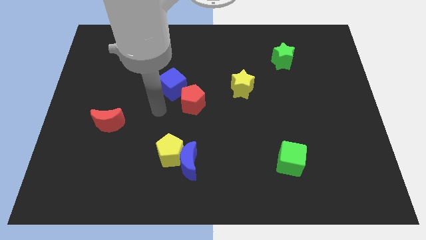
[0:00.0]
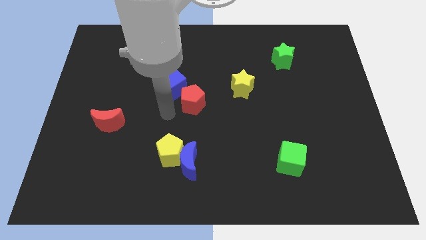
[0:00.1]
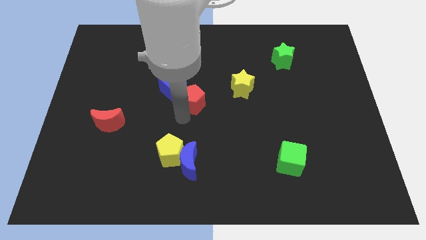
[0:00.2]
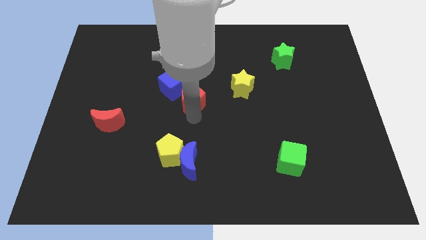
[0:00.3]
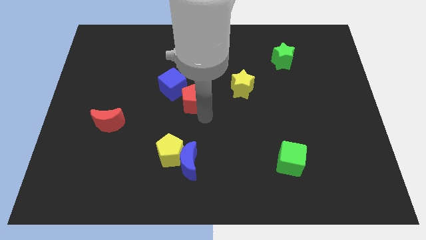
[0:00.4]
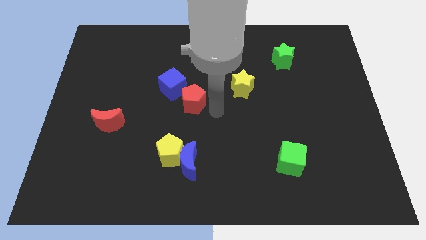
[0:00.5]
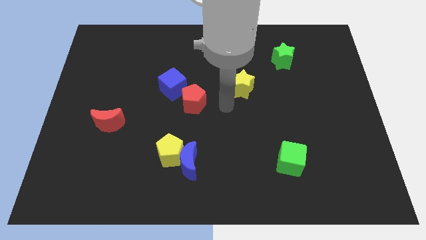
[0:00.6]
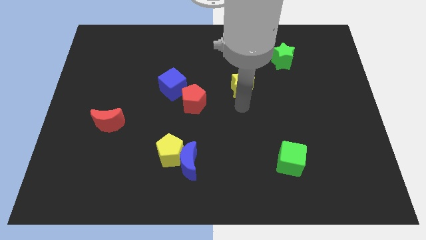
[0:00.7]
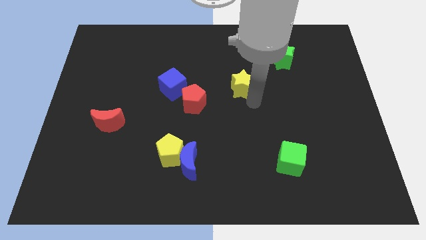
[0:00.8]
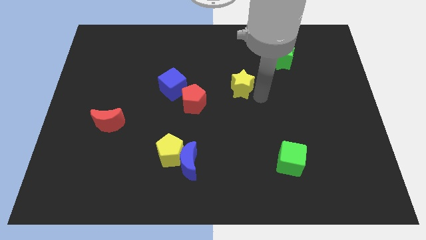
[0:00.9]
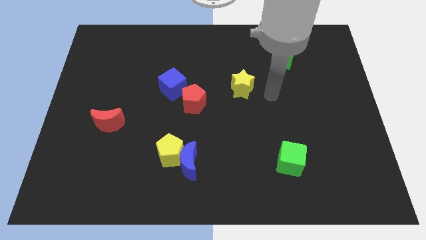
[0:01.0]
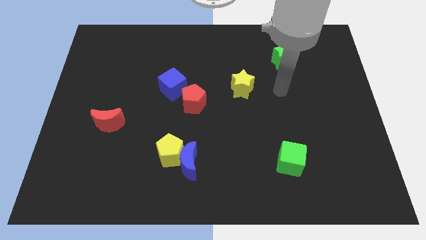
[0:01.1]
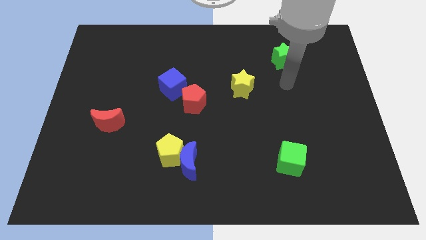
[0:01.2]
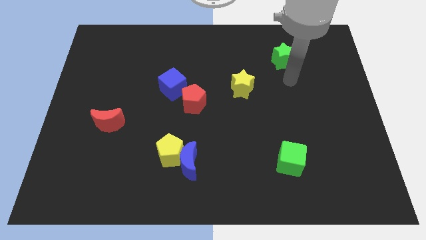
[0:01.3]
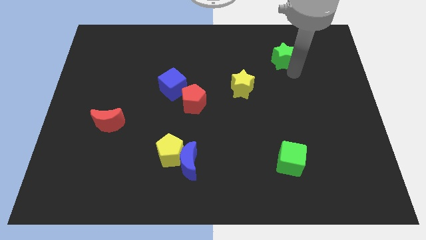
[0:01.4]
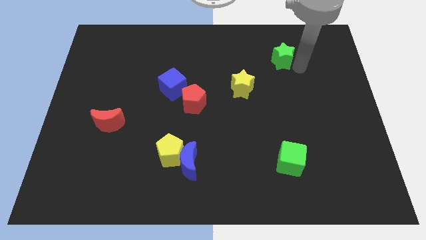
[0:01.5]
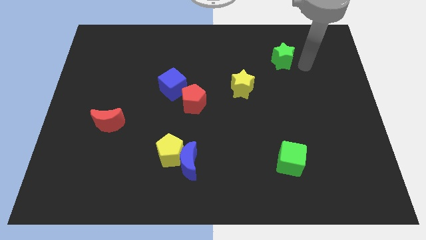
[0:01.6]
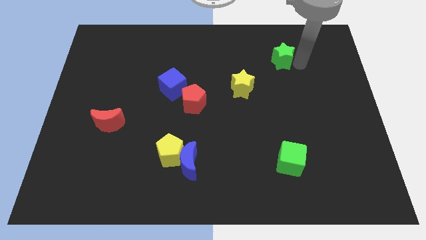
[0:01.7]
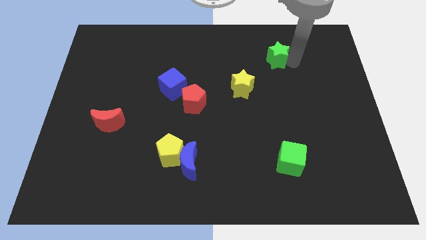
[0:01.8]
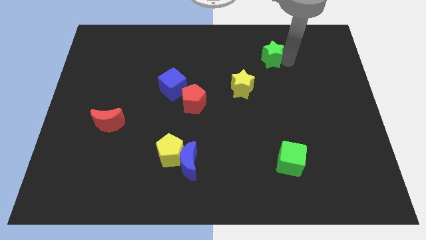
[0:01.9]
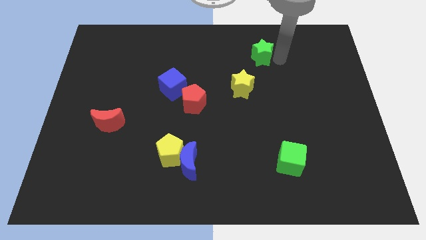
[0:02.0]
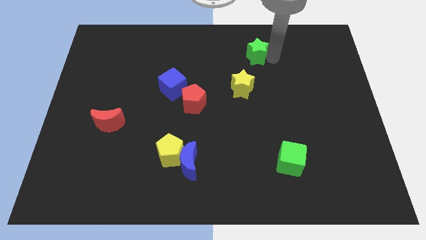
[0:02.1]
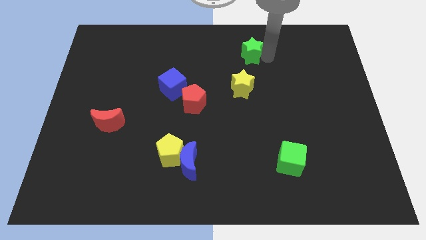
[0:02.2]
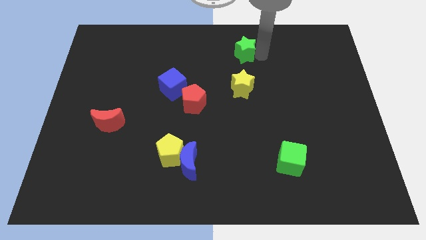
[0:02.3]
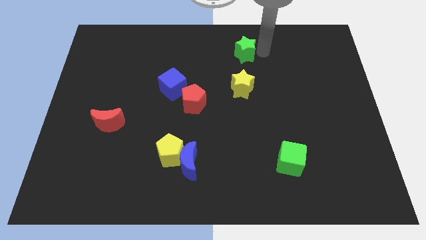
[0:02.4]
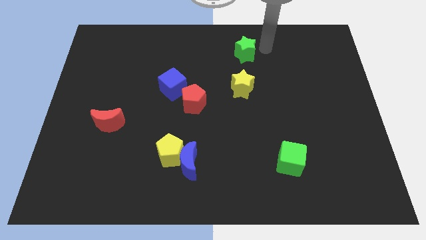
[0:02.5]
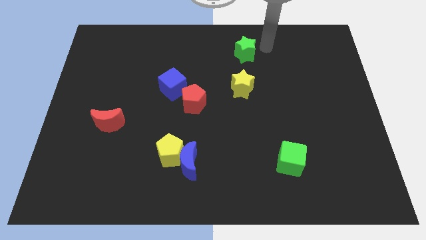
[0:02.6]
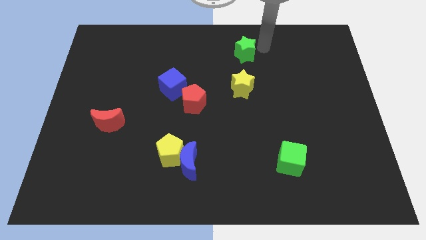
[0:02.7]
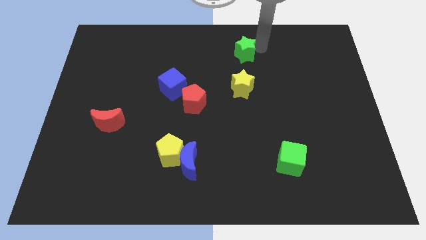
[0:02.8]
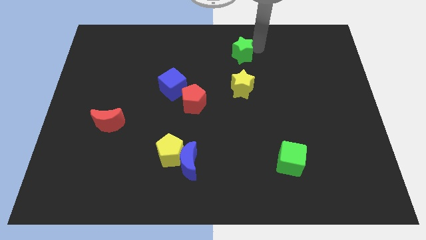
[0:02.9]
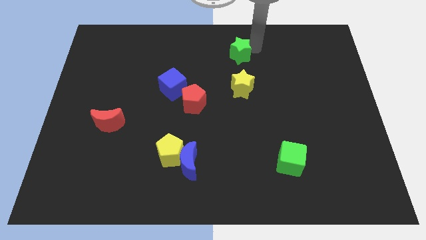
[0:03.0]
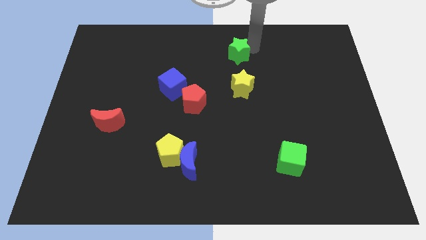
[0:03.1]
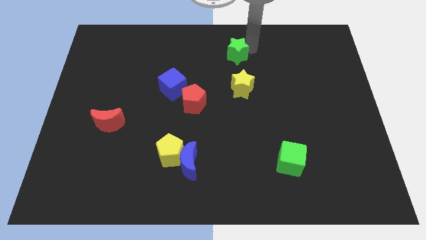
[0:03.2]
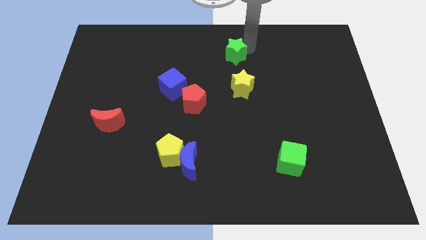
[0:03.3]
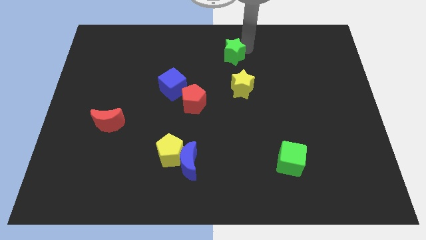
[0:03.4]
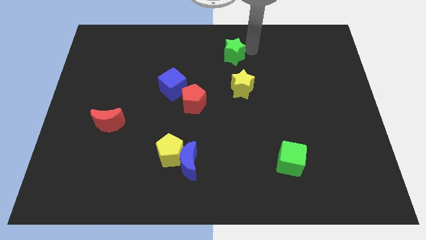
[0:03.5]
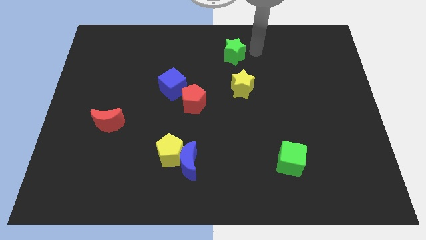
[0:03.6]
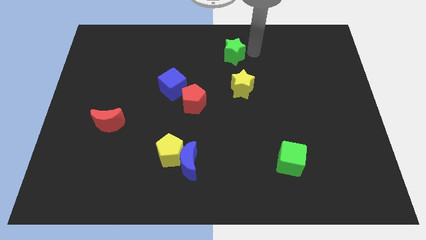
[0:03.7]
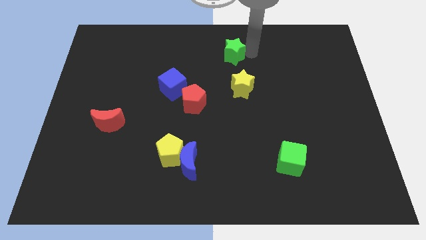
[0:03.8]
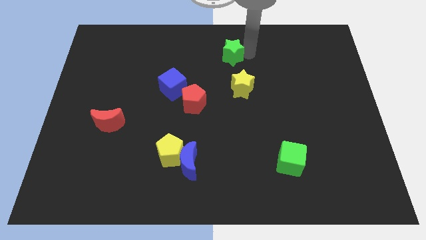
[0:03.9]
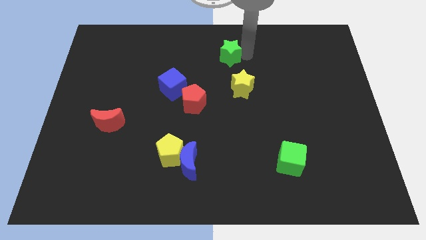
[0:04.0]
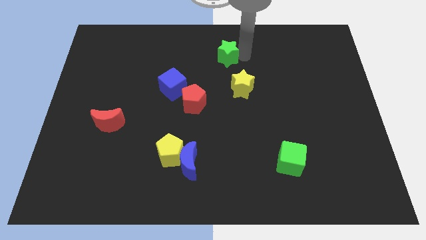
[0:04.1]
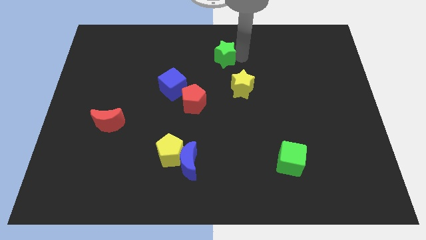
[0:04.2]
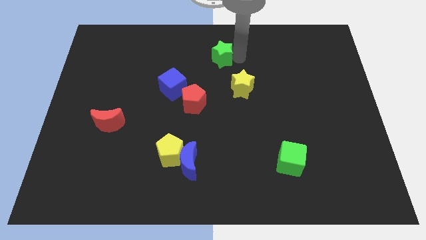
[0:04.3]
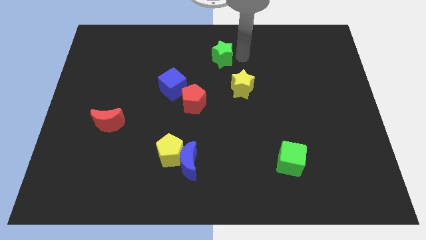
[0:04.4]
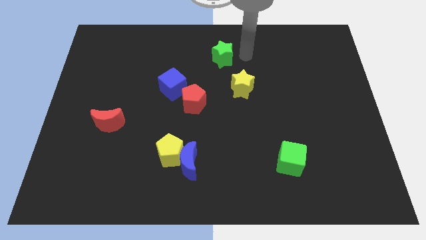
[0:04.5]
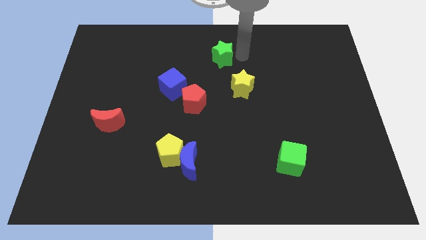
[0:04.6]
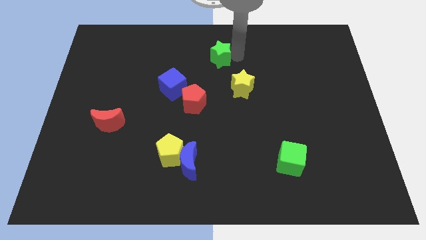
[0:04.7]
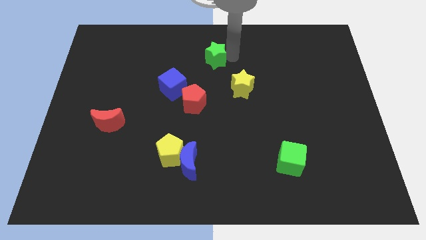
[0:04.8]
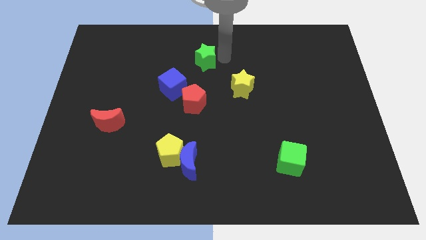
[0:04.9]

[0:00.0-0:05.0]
push the green star left

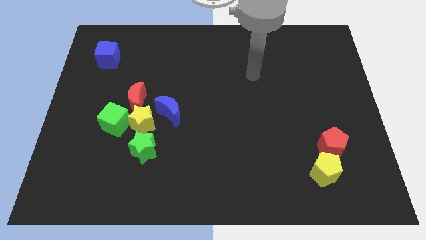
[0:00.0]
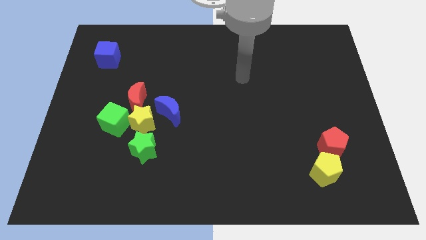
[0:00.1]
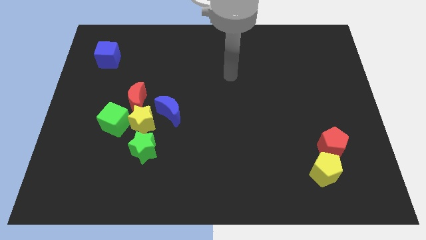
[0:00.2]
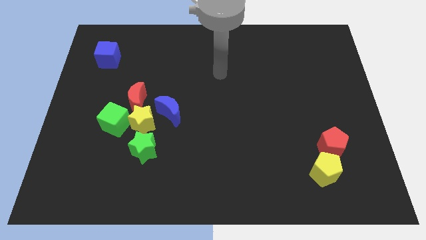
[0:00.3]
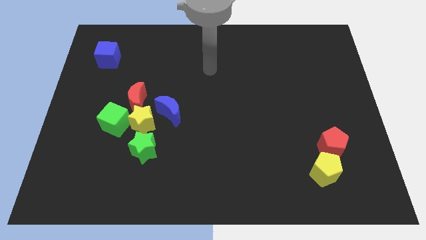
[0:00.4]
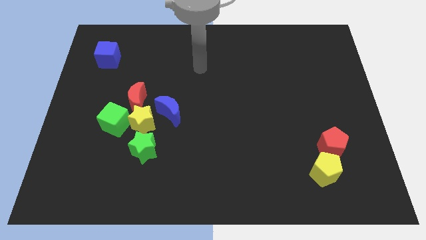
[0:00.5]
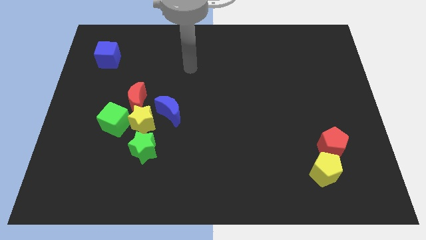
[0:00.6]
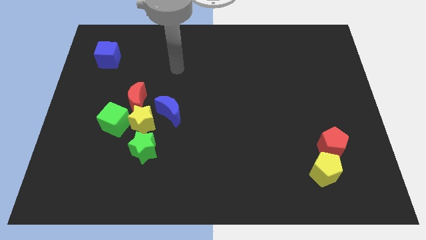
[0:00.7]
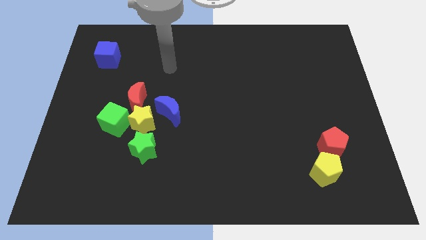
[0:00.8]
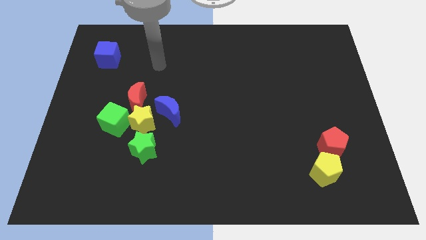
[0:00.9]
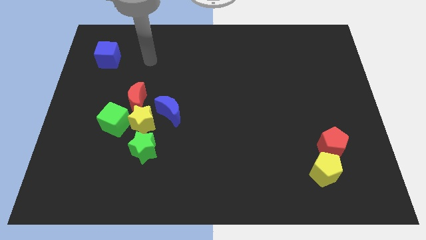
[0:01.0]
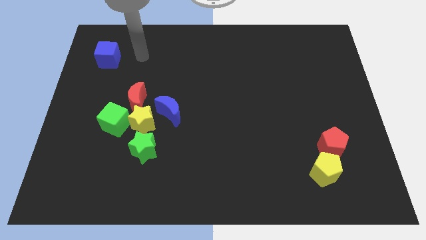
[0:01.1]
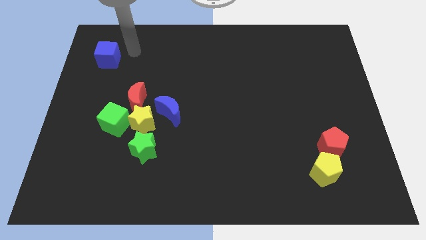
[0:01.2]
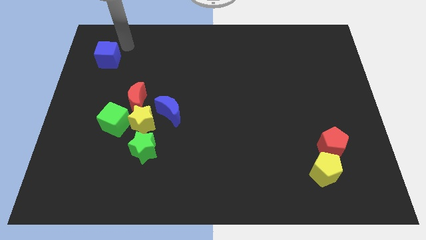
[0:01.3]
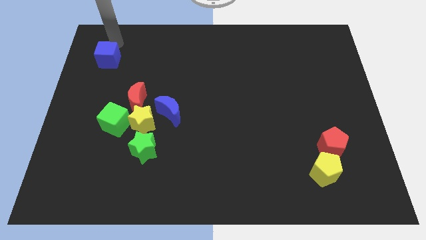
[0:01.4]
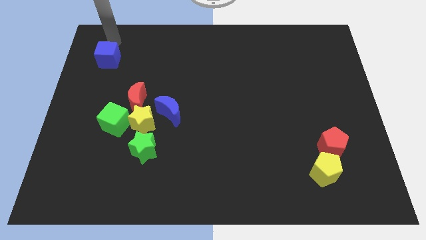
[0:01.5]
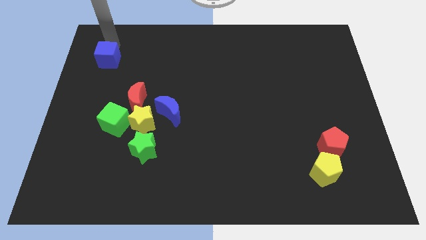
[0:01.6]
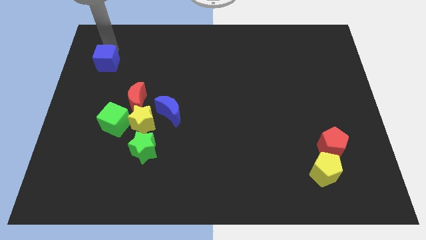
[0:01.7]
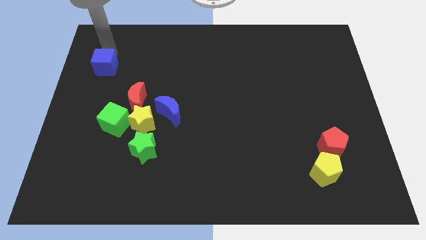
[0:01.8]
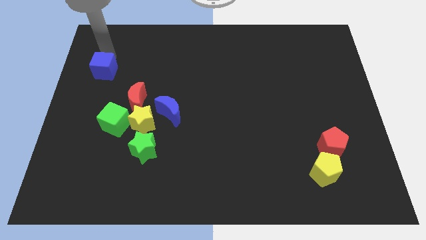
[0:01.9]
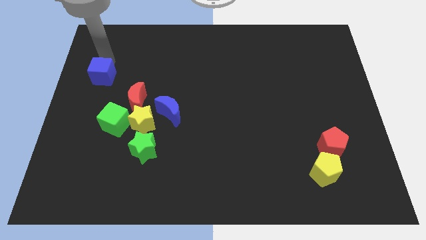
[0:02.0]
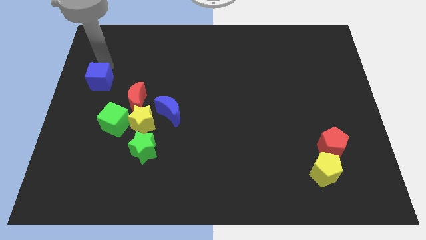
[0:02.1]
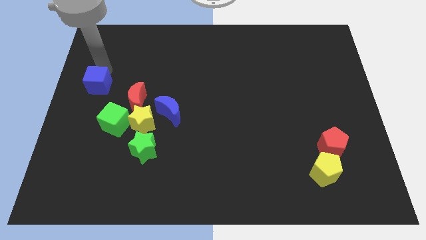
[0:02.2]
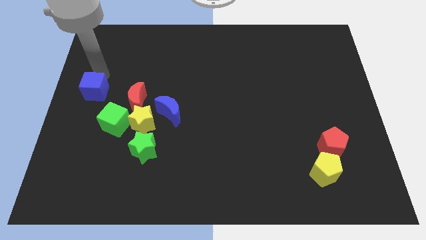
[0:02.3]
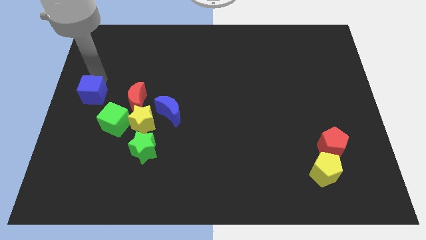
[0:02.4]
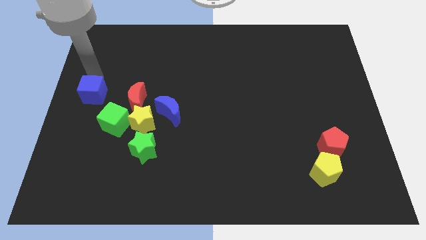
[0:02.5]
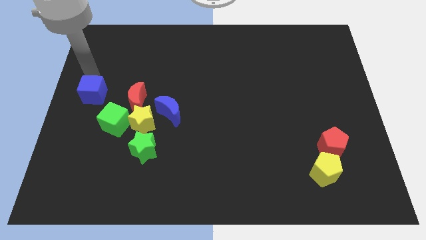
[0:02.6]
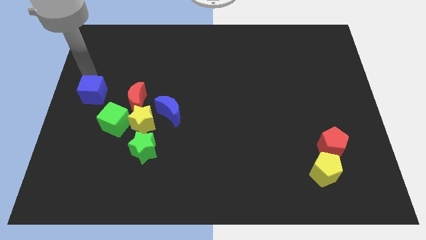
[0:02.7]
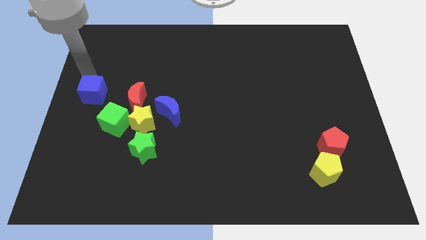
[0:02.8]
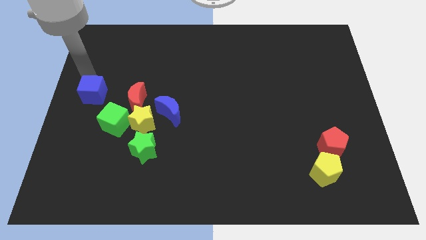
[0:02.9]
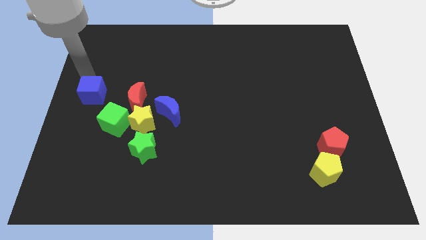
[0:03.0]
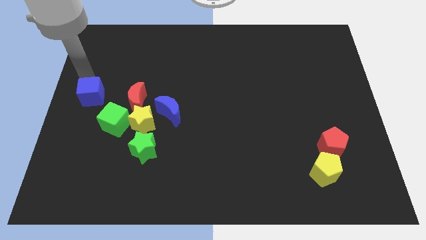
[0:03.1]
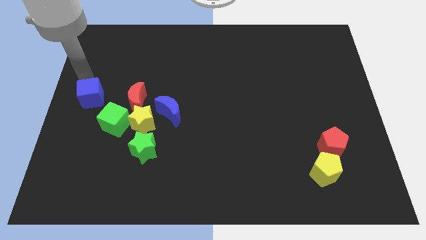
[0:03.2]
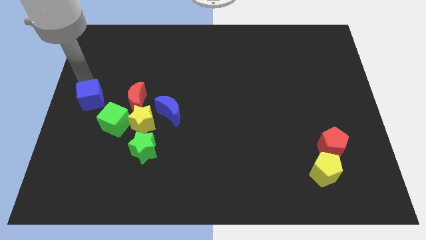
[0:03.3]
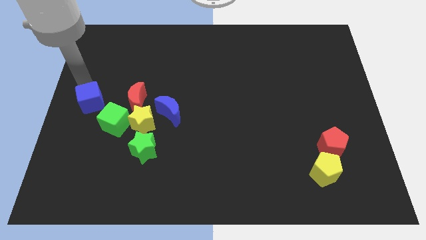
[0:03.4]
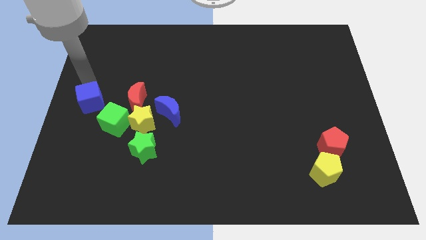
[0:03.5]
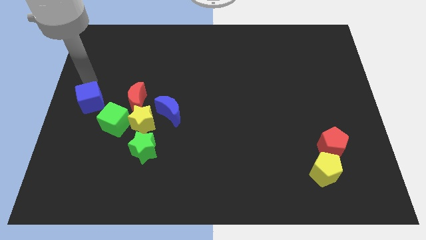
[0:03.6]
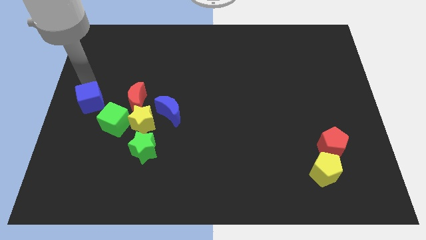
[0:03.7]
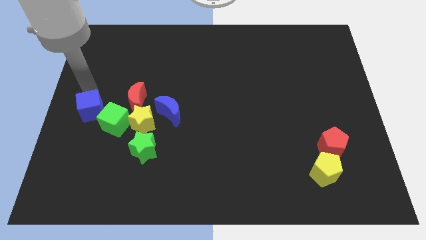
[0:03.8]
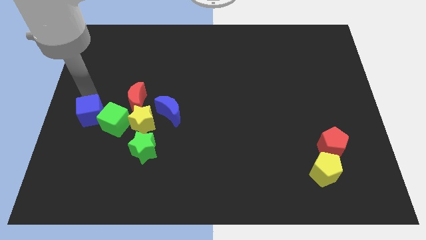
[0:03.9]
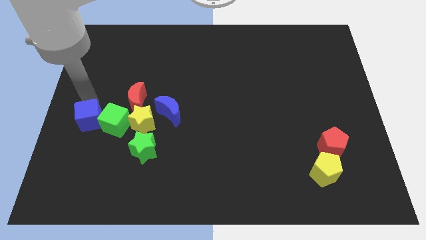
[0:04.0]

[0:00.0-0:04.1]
slide the blue cube down
